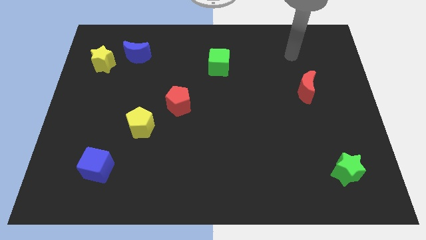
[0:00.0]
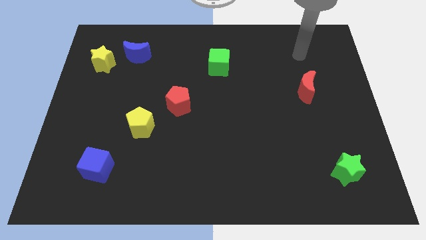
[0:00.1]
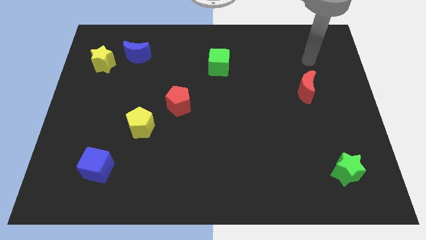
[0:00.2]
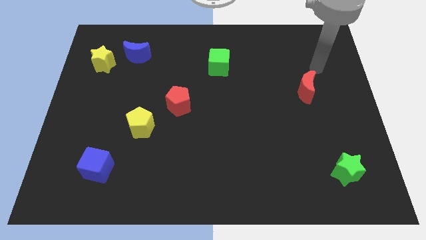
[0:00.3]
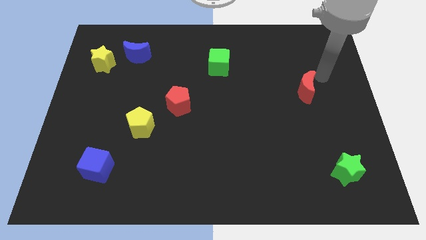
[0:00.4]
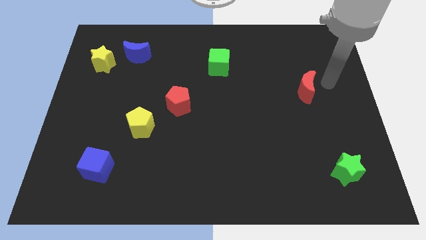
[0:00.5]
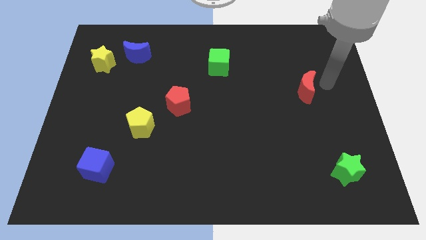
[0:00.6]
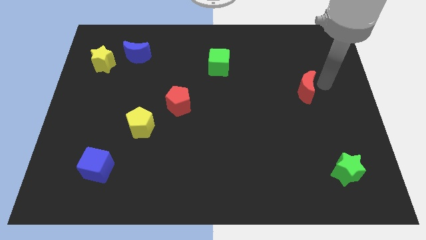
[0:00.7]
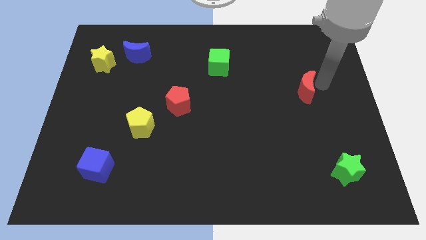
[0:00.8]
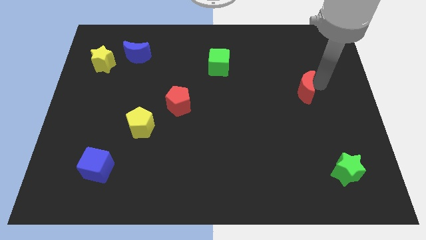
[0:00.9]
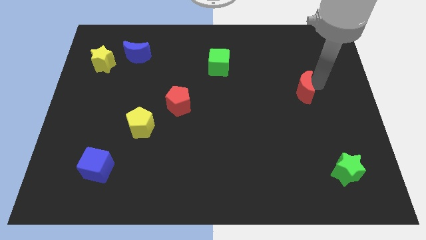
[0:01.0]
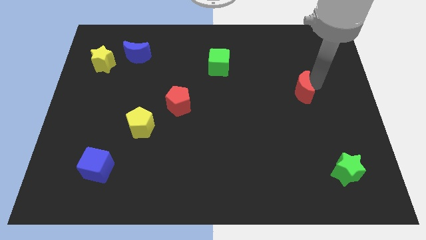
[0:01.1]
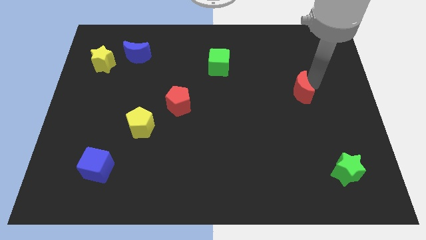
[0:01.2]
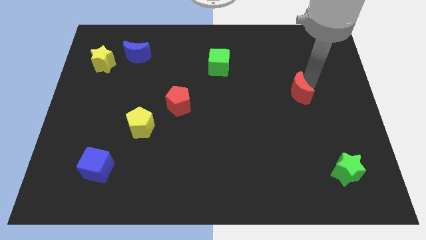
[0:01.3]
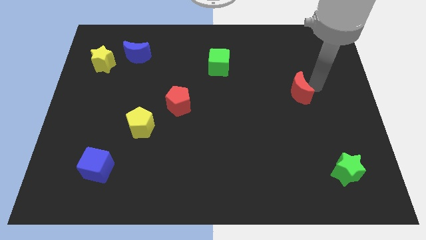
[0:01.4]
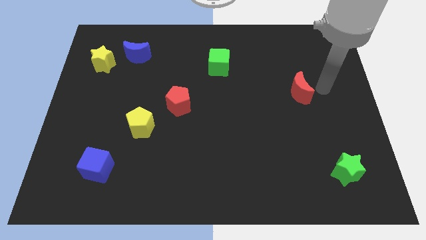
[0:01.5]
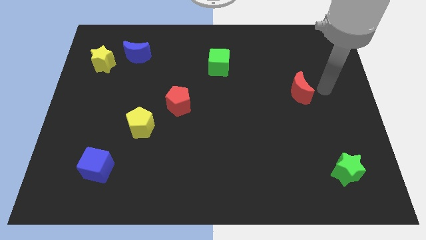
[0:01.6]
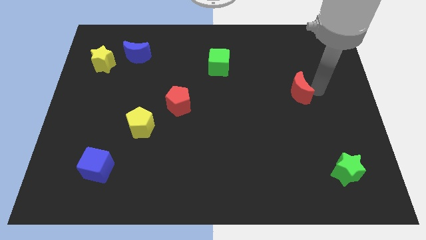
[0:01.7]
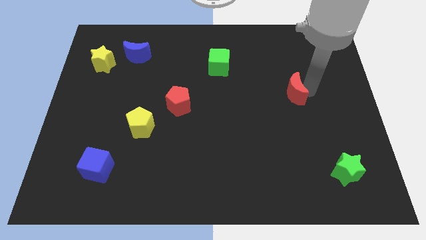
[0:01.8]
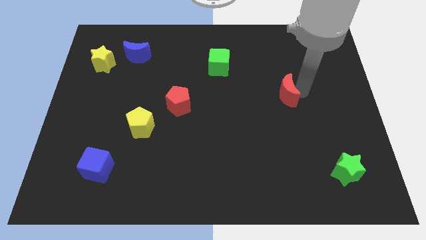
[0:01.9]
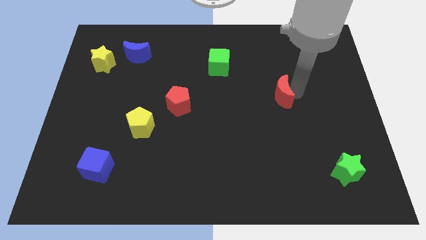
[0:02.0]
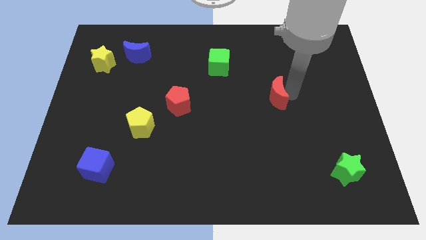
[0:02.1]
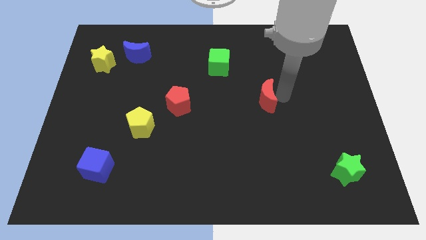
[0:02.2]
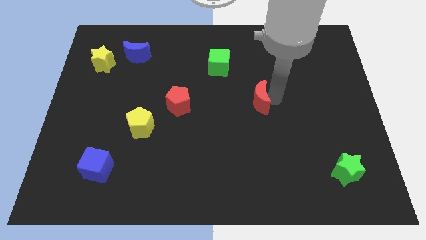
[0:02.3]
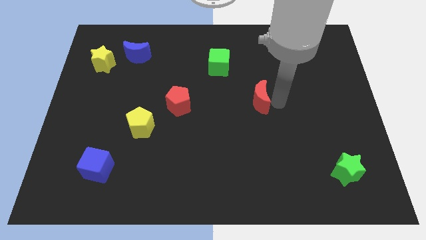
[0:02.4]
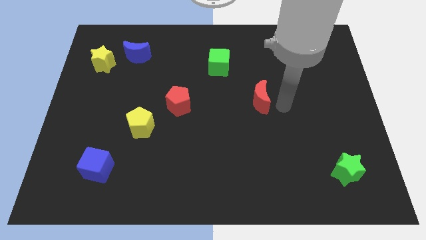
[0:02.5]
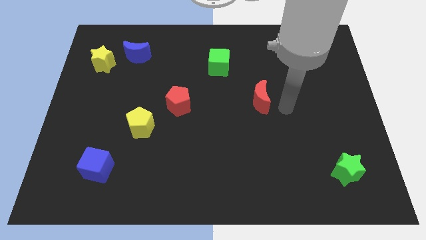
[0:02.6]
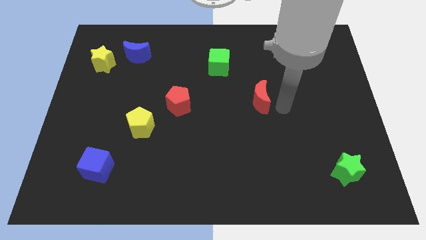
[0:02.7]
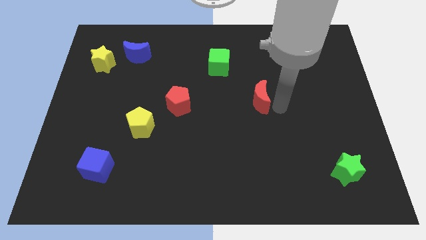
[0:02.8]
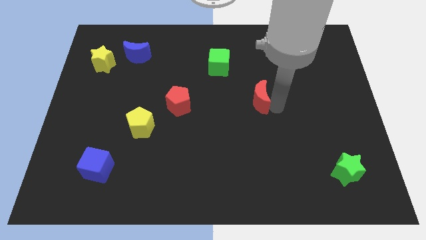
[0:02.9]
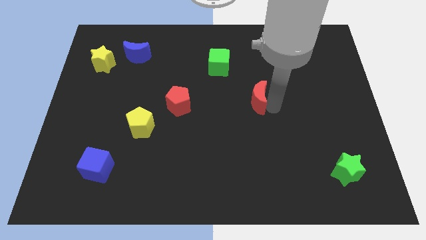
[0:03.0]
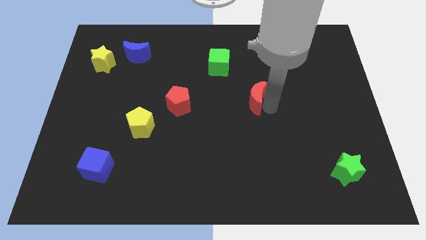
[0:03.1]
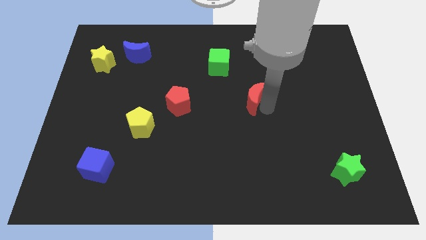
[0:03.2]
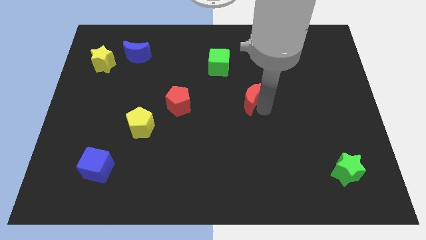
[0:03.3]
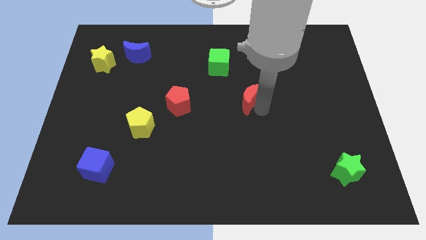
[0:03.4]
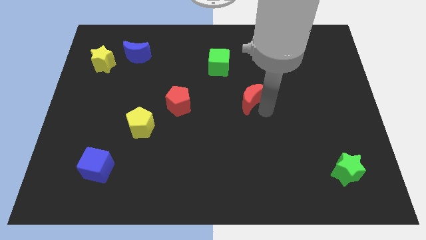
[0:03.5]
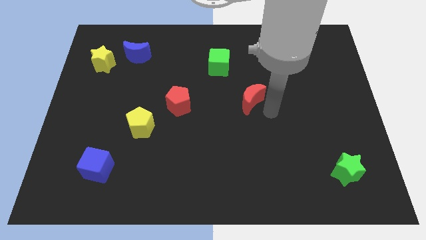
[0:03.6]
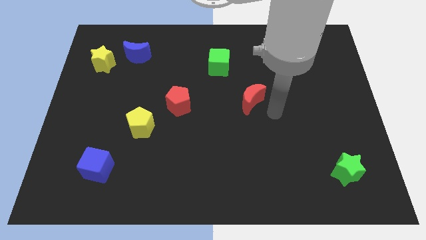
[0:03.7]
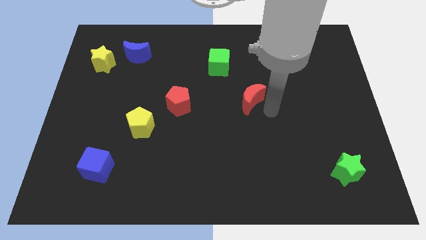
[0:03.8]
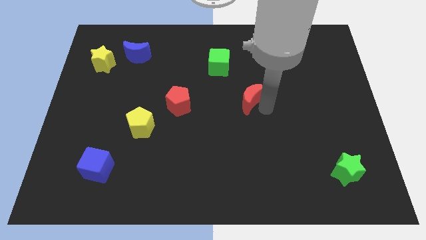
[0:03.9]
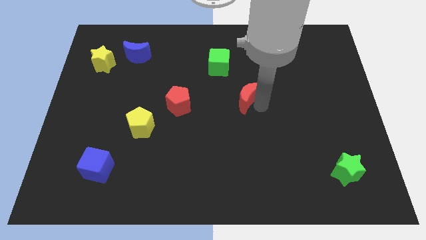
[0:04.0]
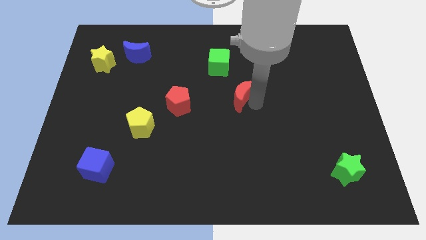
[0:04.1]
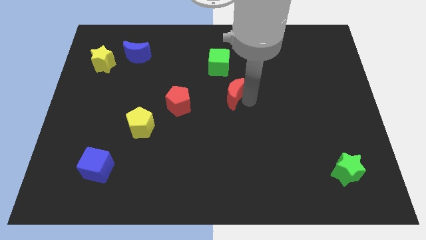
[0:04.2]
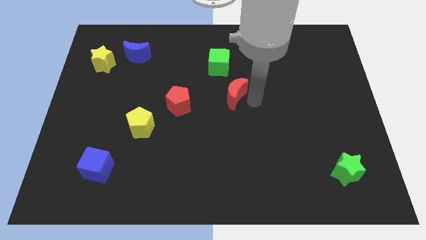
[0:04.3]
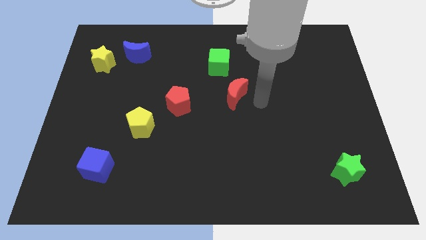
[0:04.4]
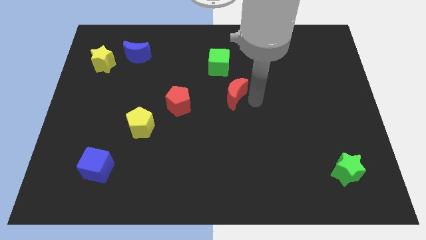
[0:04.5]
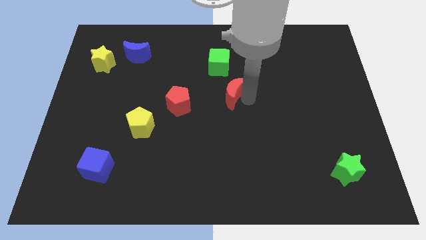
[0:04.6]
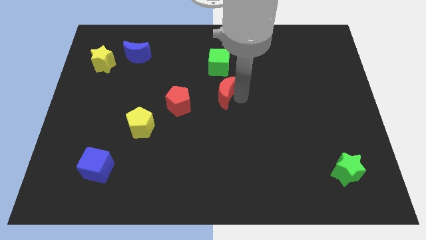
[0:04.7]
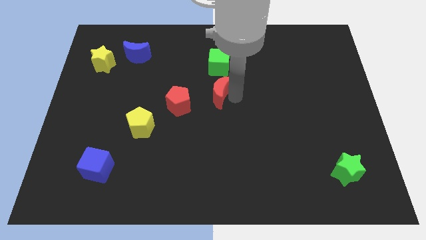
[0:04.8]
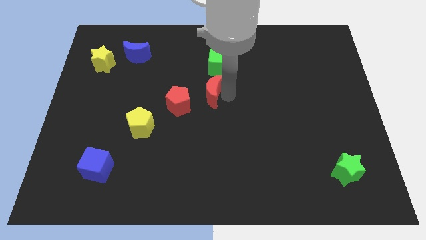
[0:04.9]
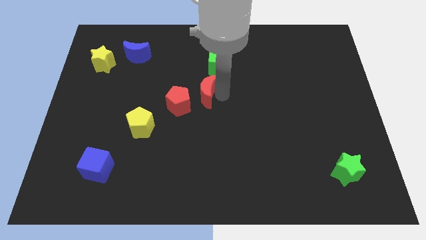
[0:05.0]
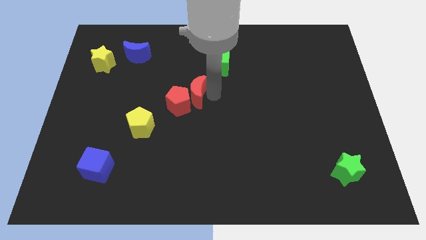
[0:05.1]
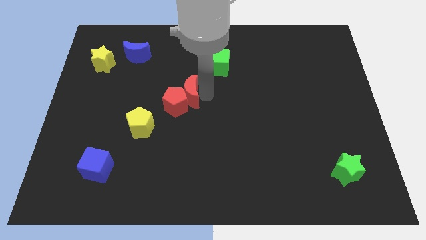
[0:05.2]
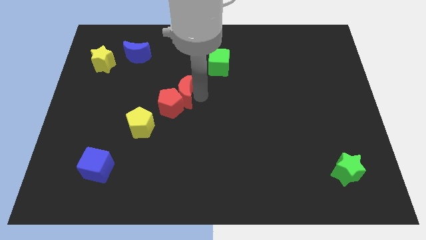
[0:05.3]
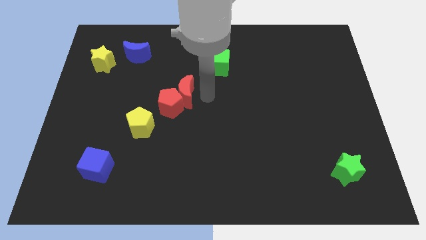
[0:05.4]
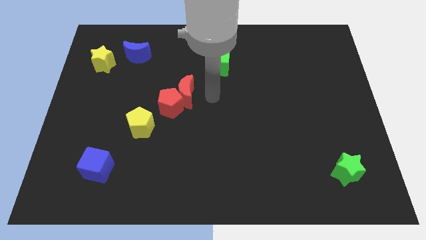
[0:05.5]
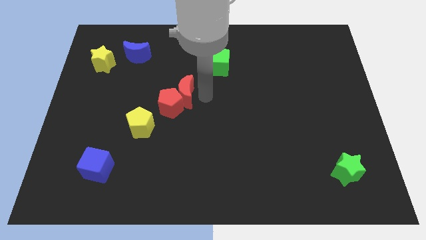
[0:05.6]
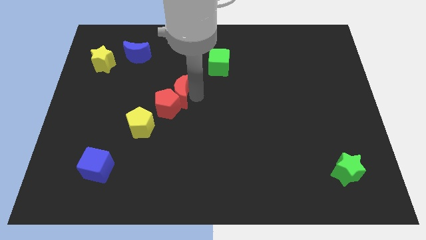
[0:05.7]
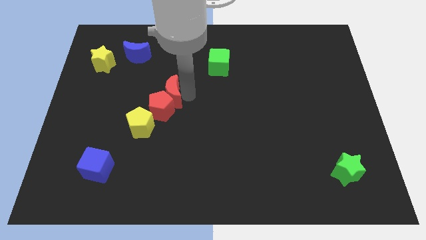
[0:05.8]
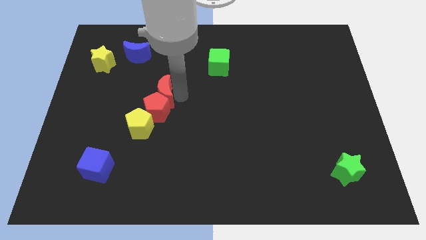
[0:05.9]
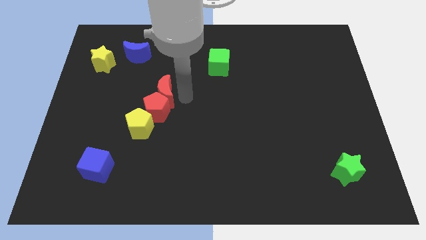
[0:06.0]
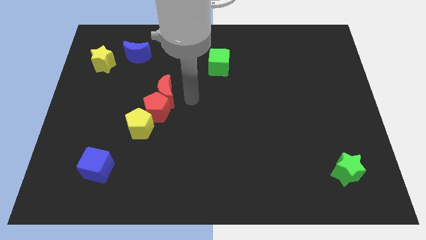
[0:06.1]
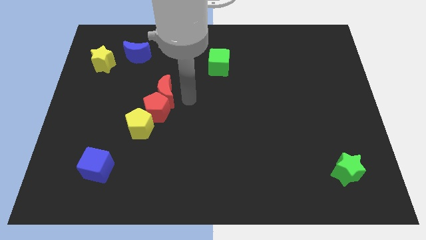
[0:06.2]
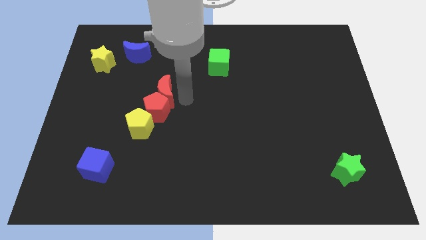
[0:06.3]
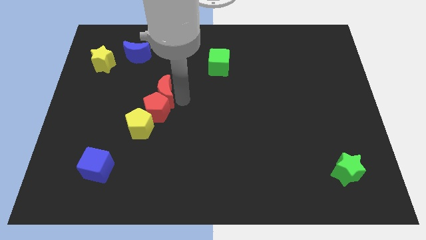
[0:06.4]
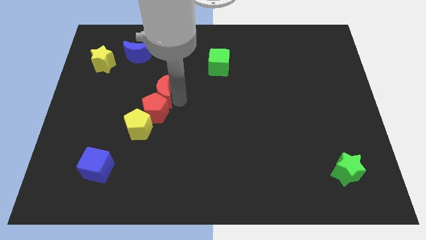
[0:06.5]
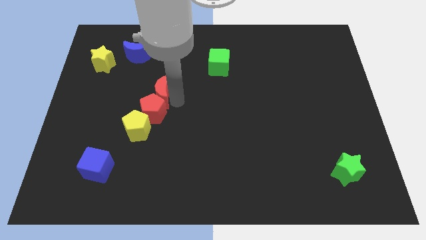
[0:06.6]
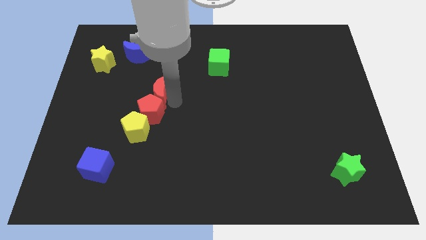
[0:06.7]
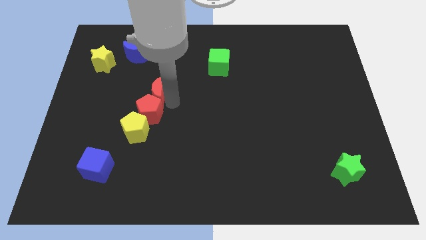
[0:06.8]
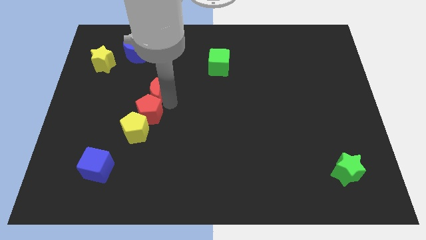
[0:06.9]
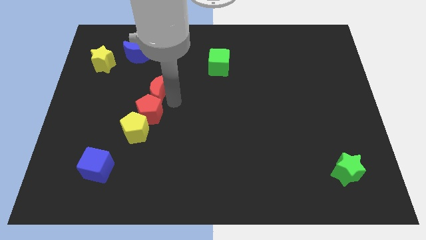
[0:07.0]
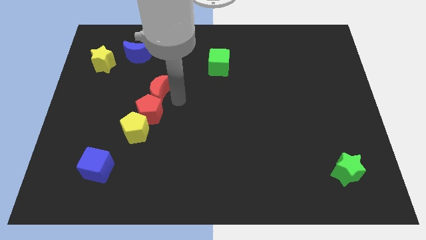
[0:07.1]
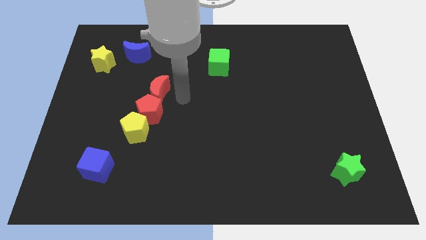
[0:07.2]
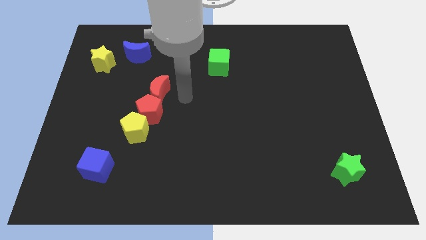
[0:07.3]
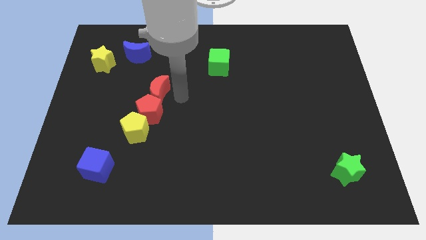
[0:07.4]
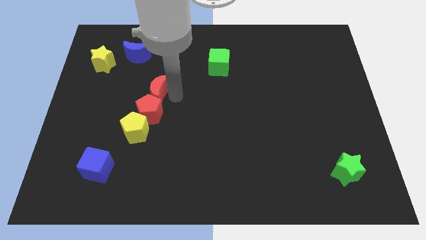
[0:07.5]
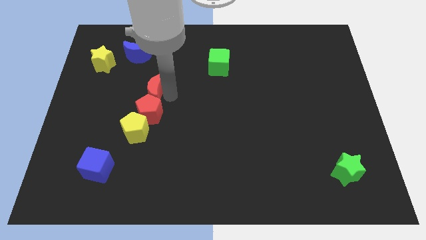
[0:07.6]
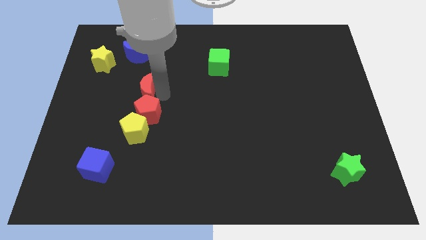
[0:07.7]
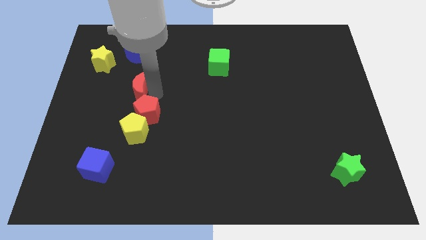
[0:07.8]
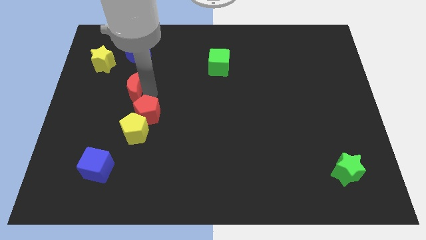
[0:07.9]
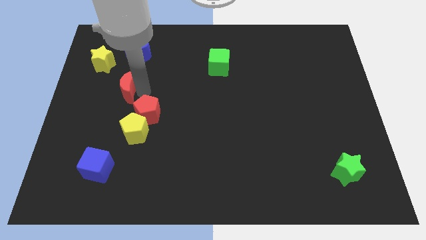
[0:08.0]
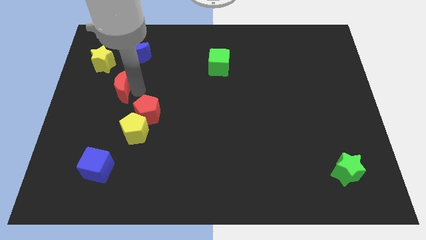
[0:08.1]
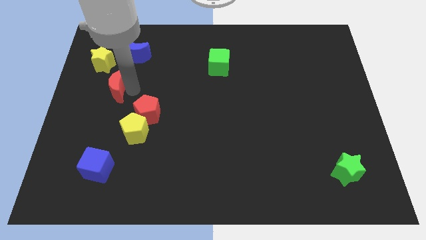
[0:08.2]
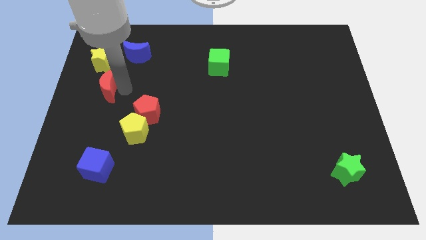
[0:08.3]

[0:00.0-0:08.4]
put the red moon to the left side of the board
